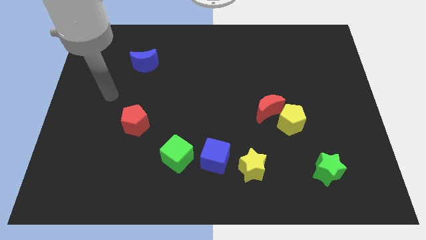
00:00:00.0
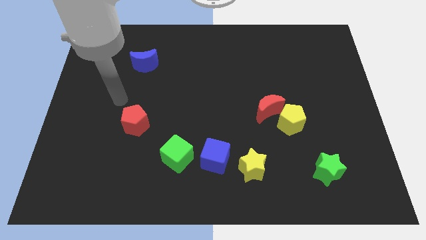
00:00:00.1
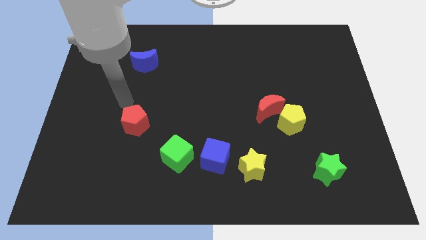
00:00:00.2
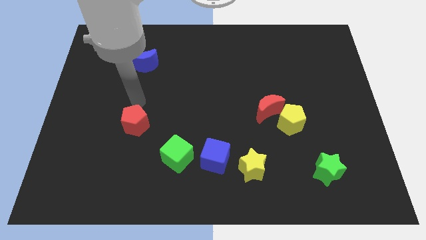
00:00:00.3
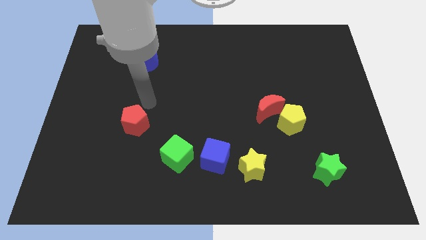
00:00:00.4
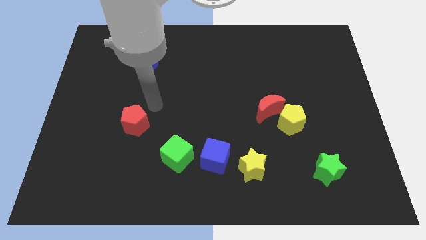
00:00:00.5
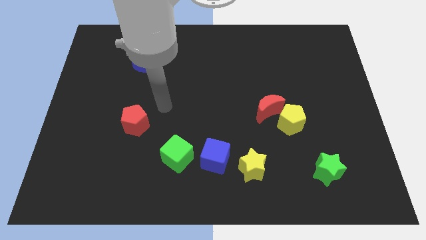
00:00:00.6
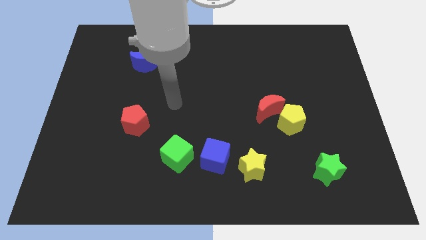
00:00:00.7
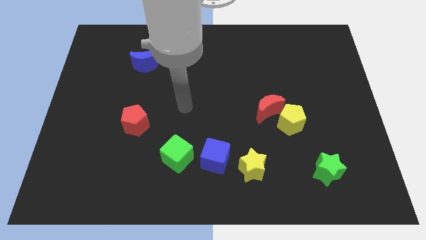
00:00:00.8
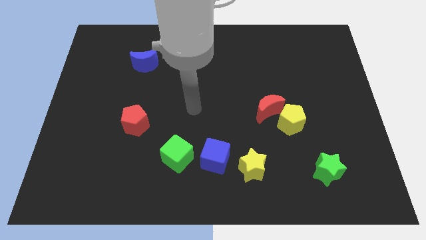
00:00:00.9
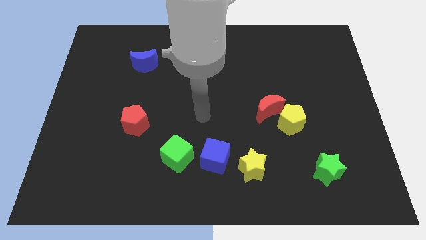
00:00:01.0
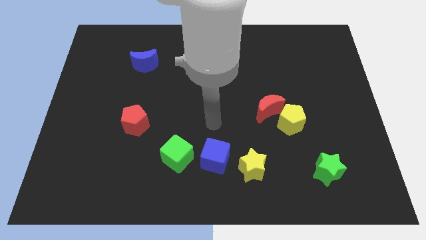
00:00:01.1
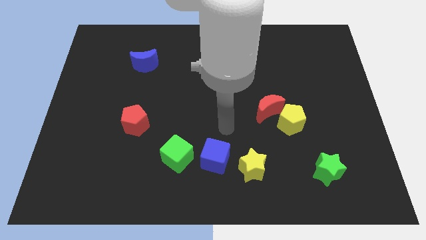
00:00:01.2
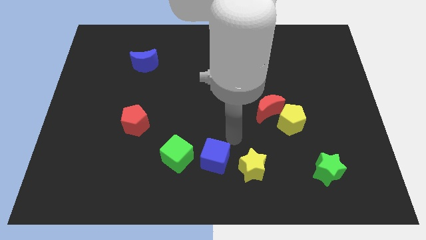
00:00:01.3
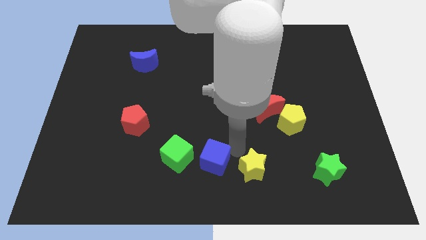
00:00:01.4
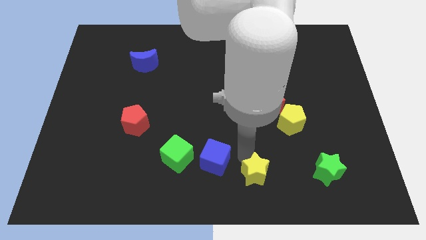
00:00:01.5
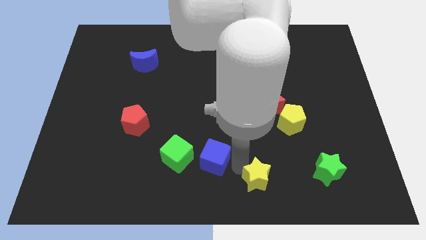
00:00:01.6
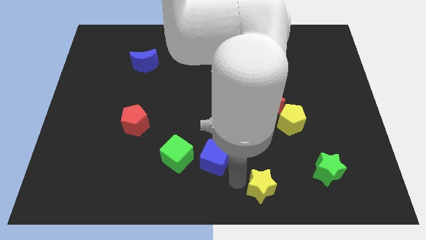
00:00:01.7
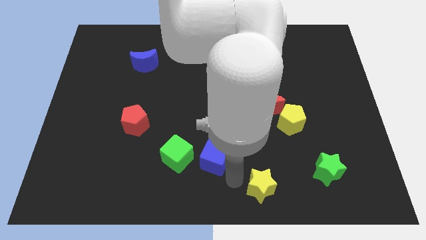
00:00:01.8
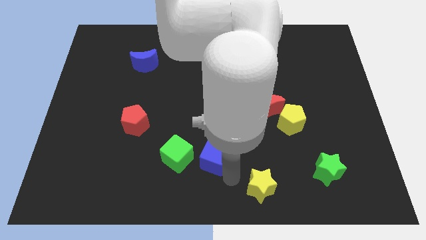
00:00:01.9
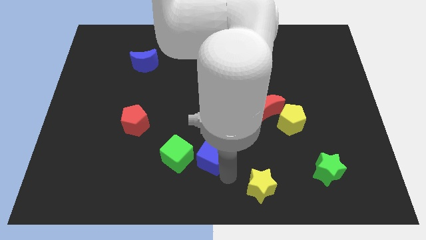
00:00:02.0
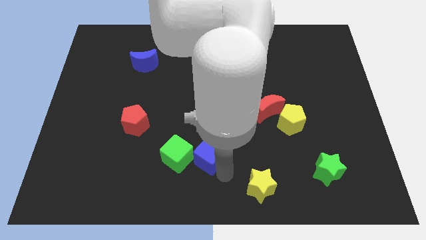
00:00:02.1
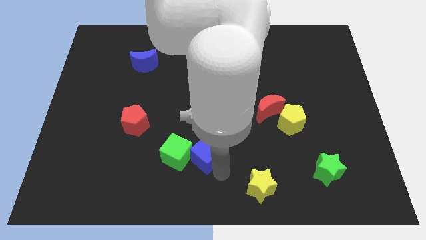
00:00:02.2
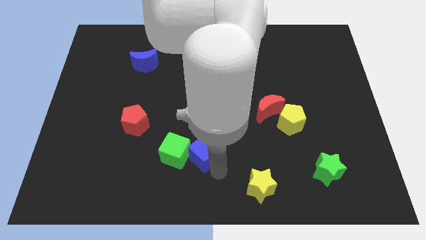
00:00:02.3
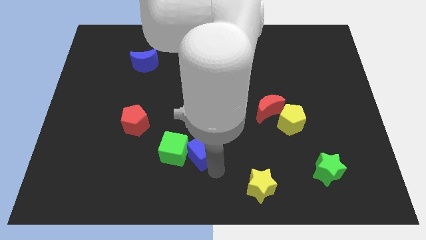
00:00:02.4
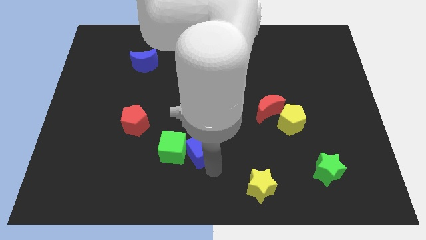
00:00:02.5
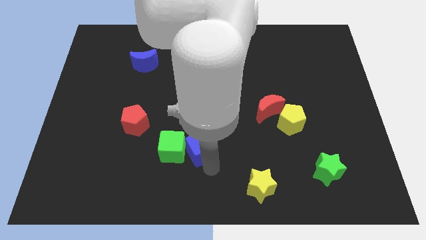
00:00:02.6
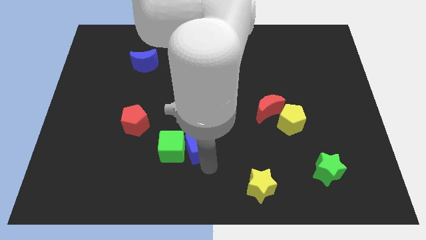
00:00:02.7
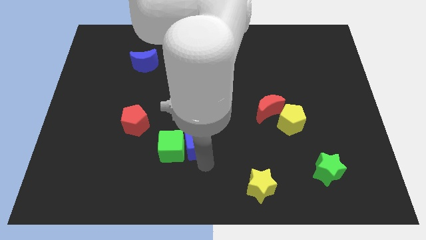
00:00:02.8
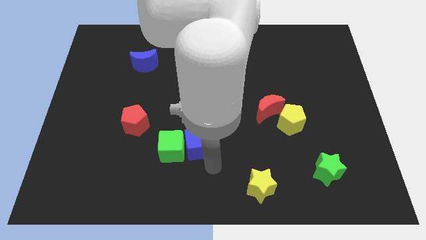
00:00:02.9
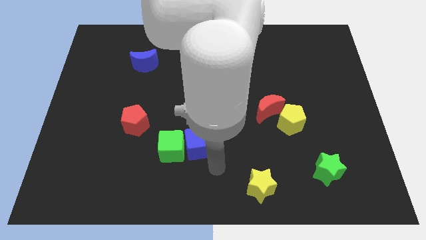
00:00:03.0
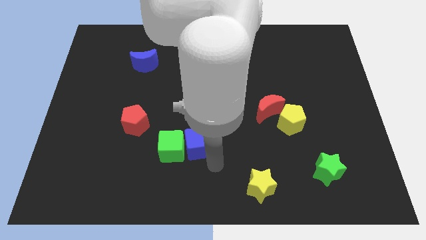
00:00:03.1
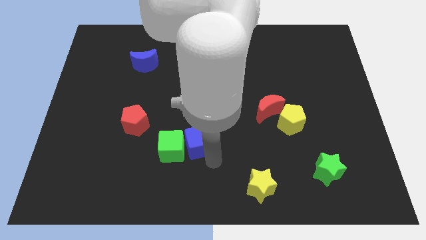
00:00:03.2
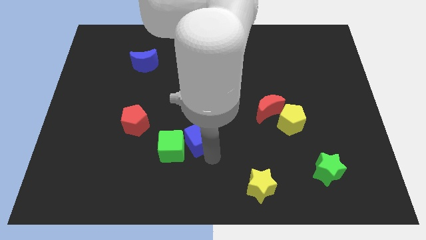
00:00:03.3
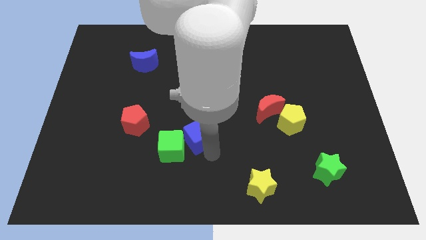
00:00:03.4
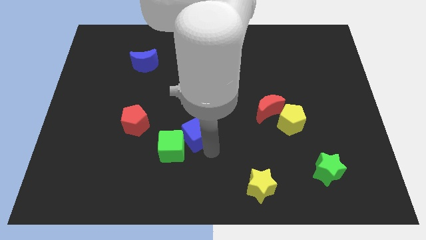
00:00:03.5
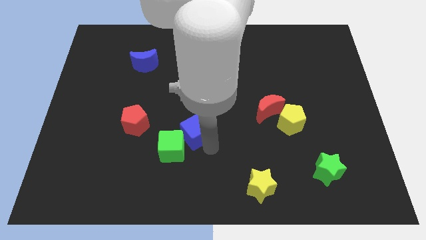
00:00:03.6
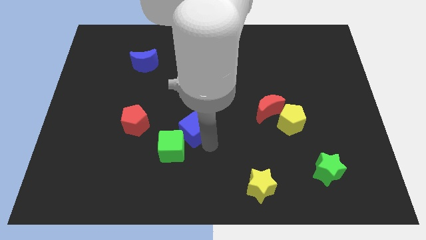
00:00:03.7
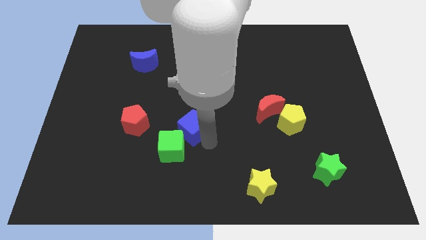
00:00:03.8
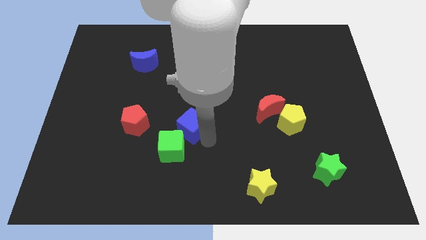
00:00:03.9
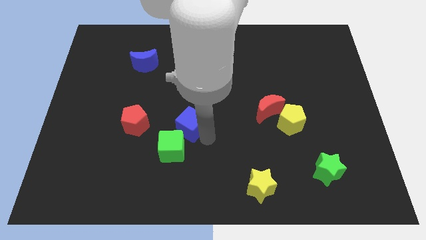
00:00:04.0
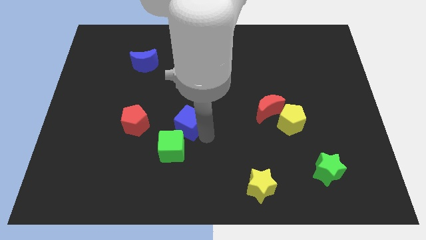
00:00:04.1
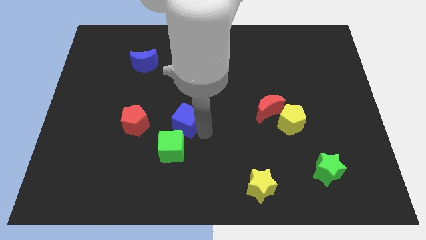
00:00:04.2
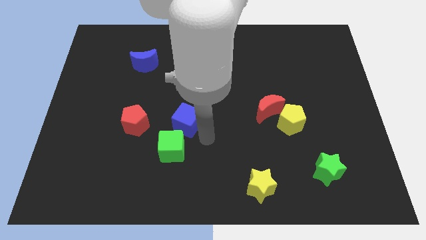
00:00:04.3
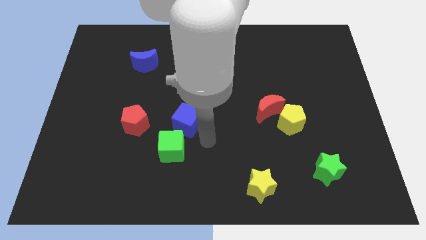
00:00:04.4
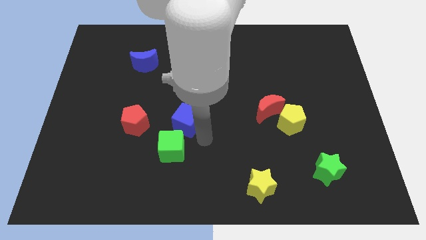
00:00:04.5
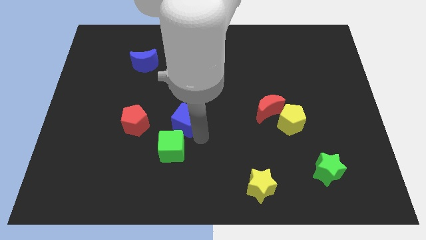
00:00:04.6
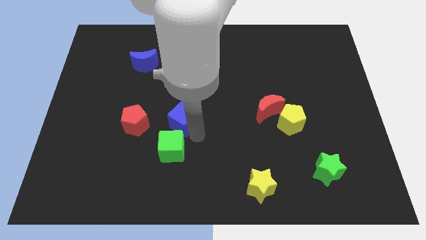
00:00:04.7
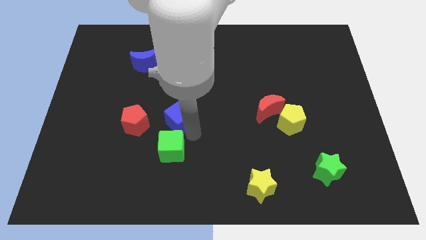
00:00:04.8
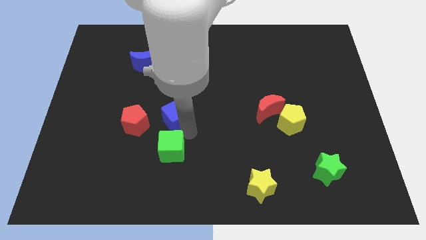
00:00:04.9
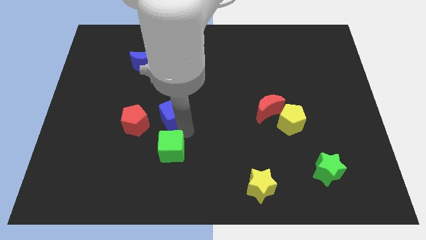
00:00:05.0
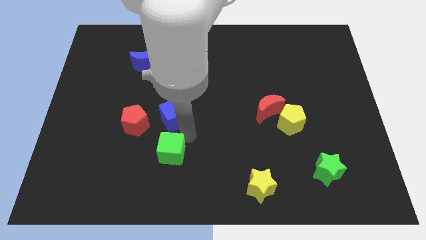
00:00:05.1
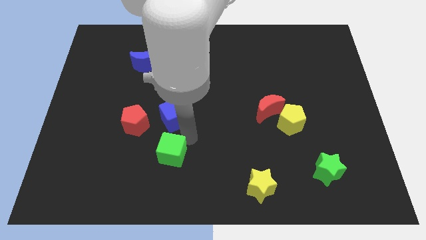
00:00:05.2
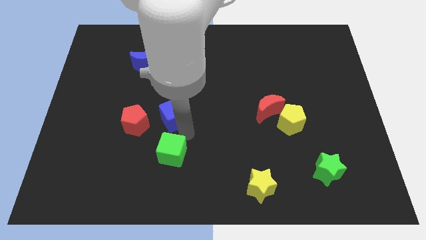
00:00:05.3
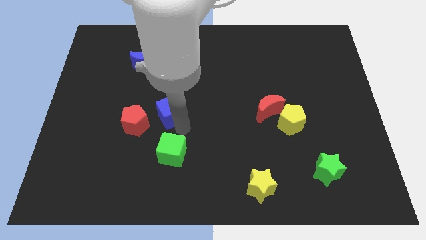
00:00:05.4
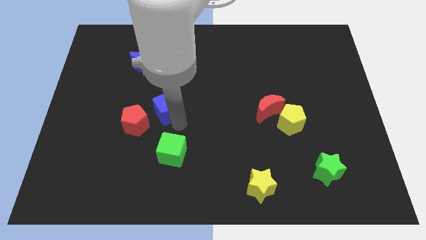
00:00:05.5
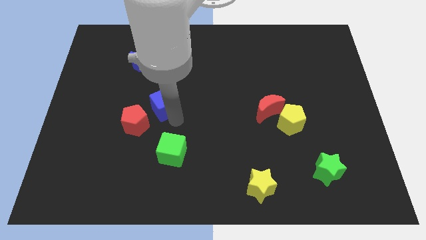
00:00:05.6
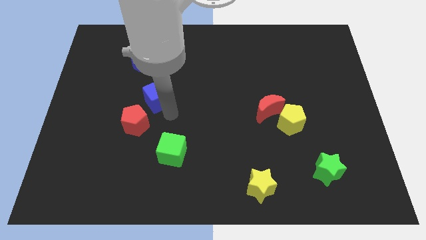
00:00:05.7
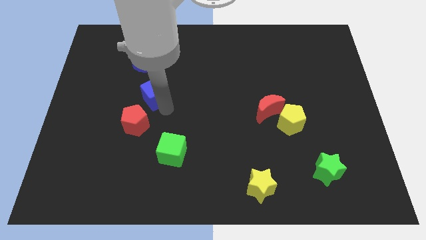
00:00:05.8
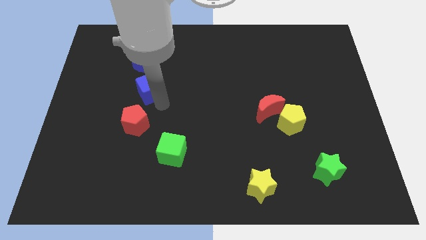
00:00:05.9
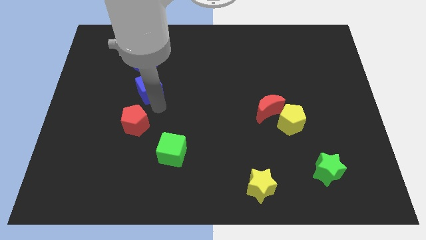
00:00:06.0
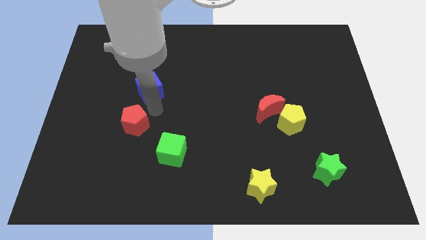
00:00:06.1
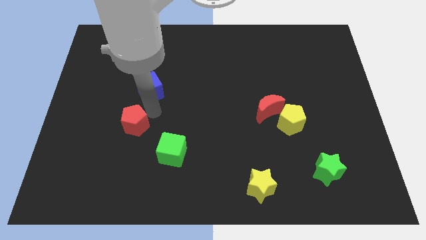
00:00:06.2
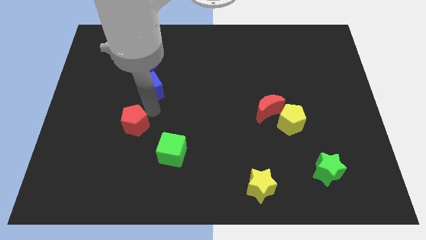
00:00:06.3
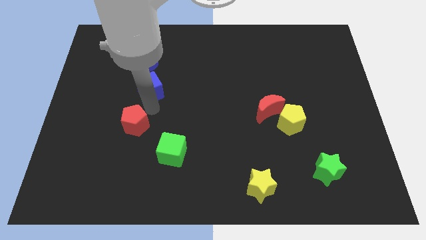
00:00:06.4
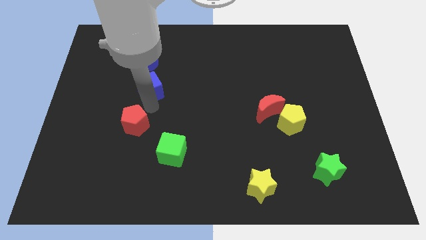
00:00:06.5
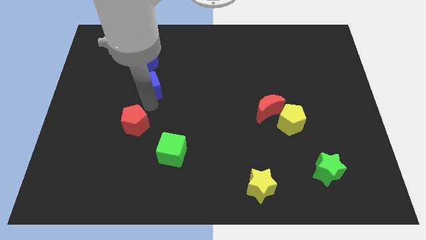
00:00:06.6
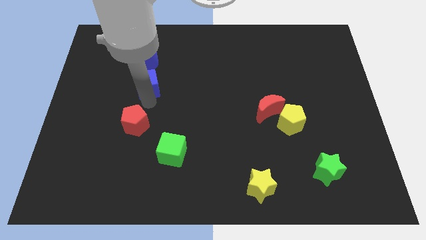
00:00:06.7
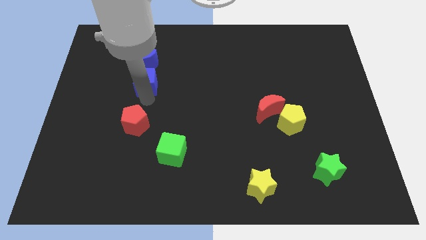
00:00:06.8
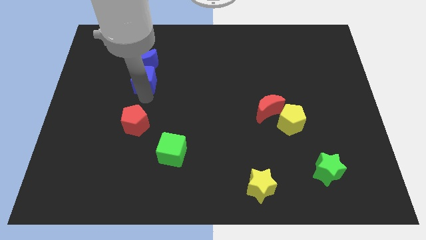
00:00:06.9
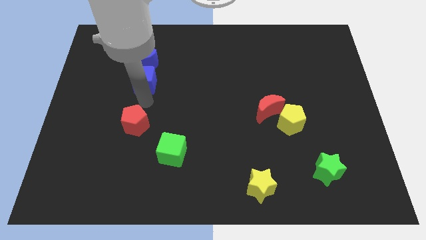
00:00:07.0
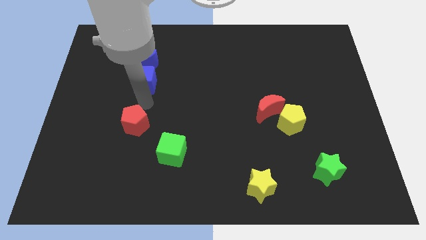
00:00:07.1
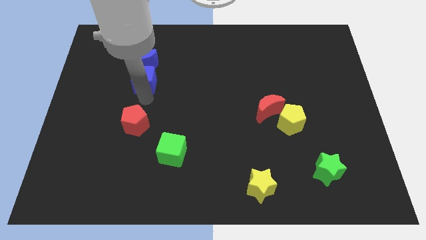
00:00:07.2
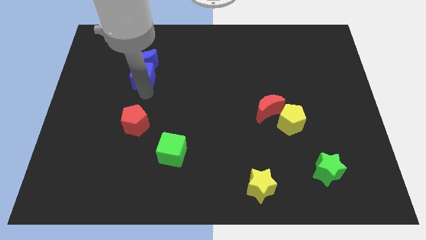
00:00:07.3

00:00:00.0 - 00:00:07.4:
put the blue cube next to the blue moon
